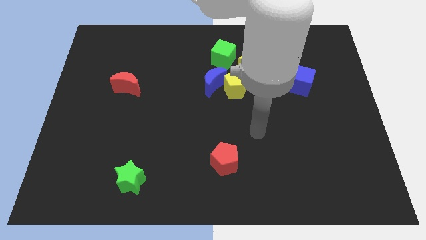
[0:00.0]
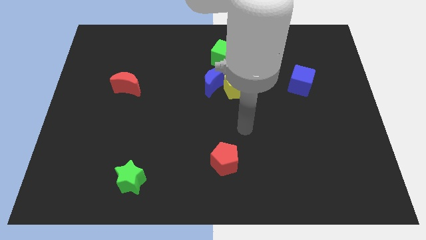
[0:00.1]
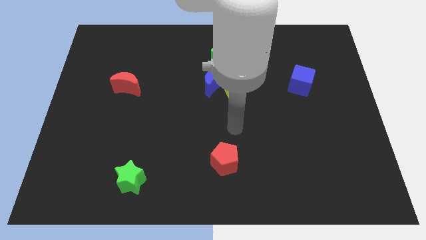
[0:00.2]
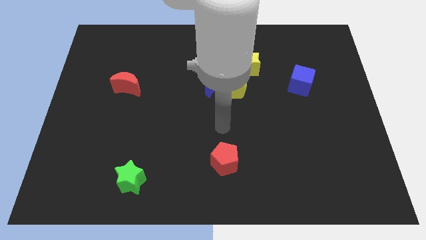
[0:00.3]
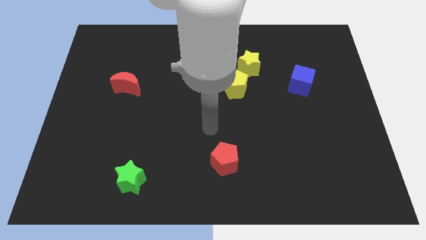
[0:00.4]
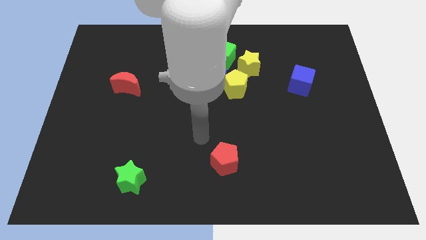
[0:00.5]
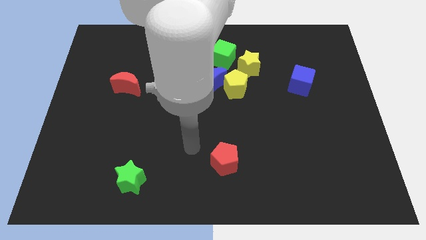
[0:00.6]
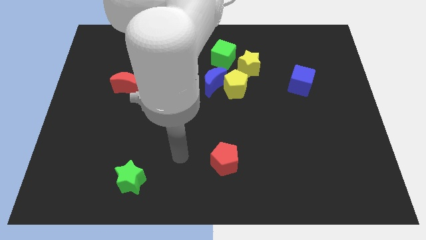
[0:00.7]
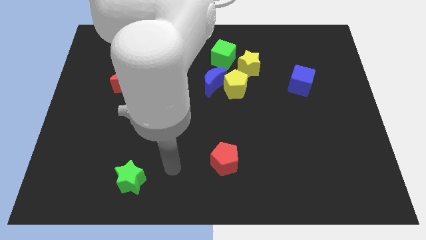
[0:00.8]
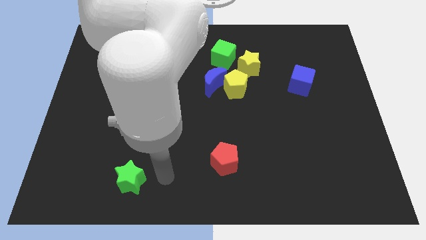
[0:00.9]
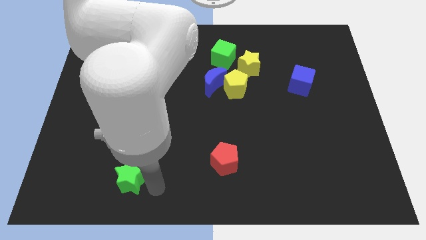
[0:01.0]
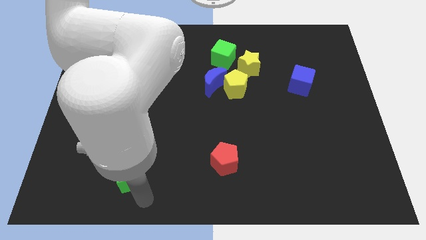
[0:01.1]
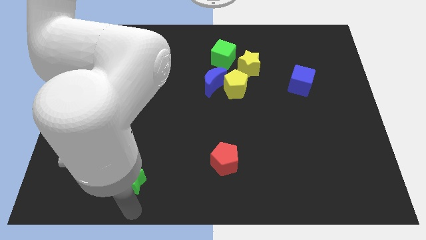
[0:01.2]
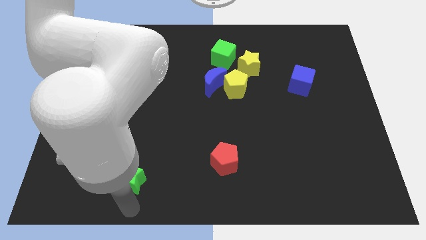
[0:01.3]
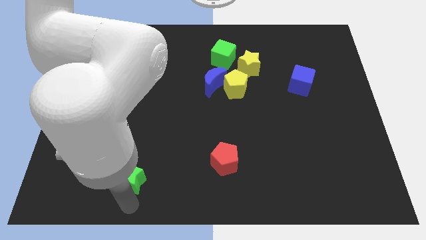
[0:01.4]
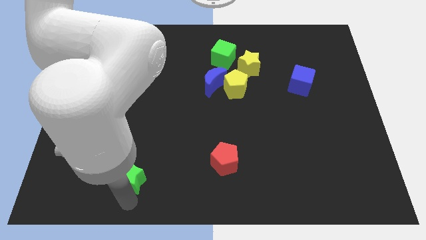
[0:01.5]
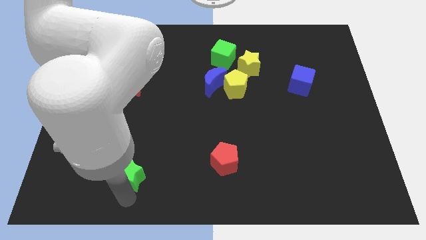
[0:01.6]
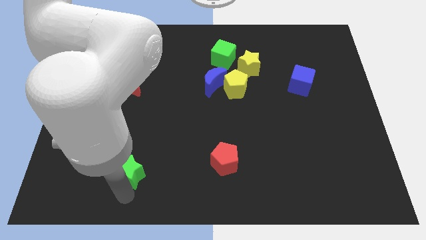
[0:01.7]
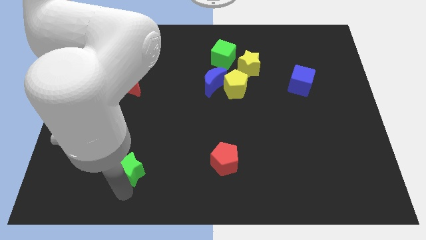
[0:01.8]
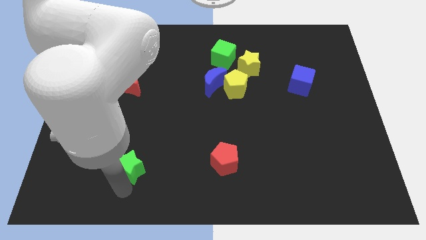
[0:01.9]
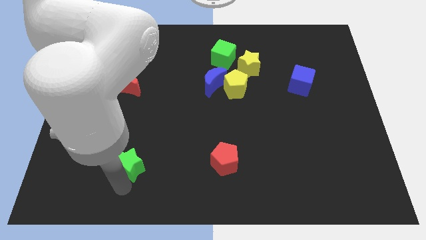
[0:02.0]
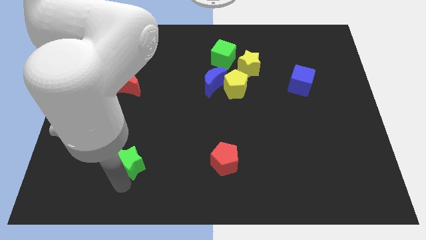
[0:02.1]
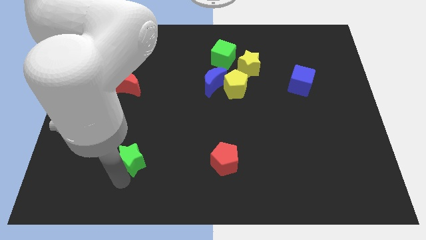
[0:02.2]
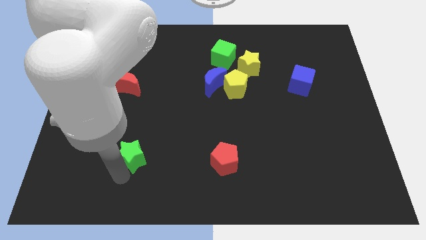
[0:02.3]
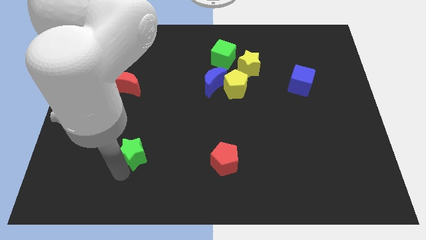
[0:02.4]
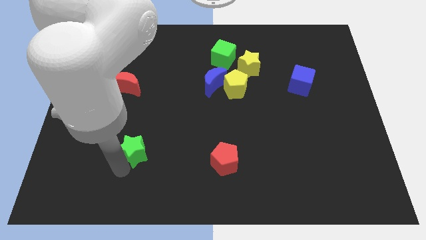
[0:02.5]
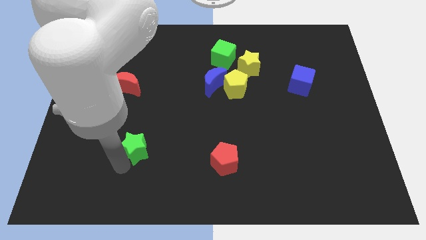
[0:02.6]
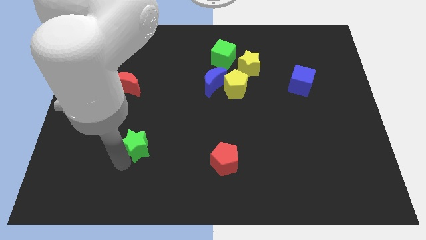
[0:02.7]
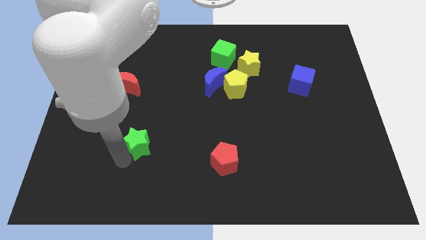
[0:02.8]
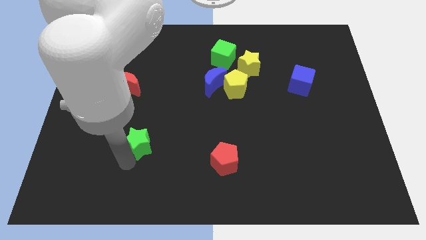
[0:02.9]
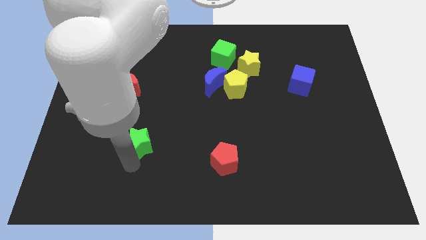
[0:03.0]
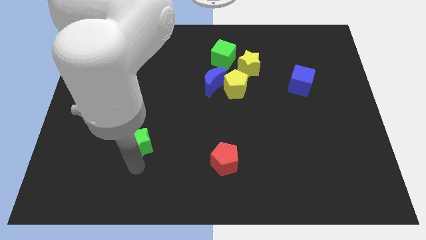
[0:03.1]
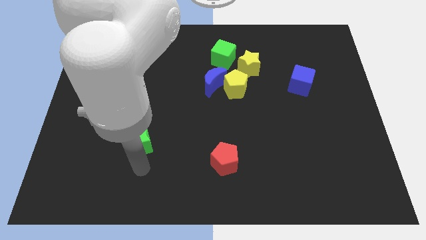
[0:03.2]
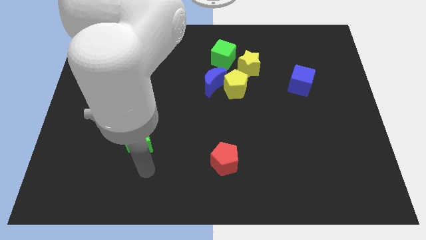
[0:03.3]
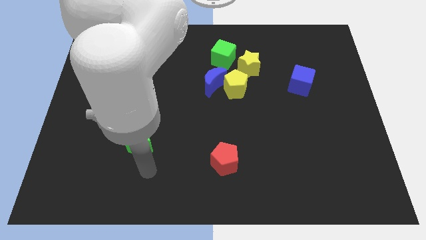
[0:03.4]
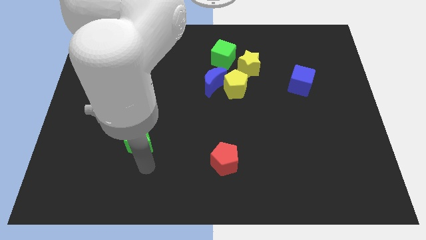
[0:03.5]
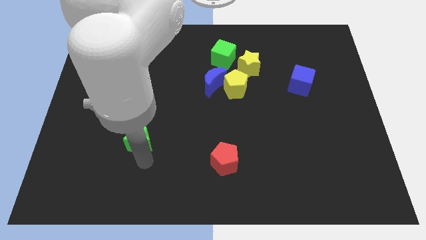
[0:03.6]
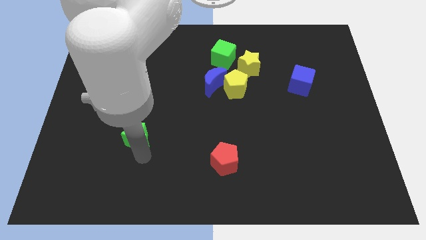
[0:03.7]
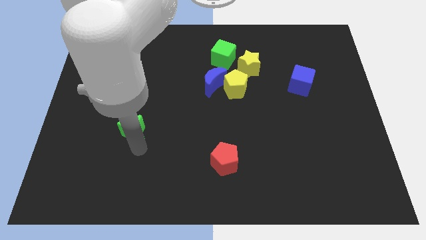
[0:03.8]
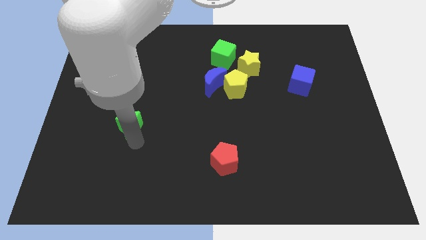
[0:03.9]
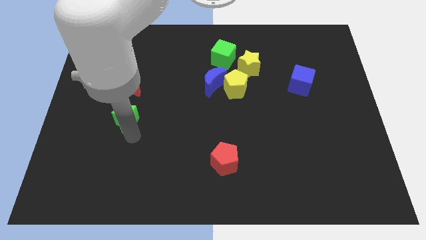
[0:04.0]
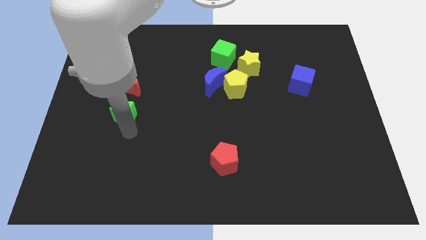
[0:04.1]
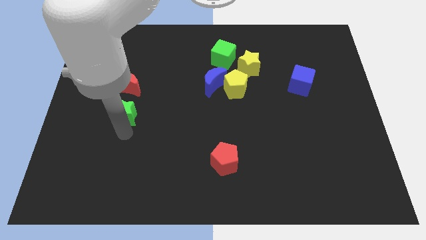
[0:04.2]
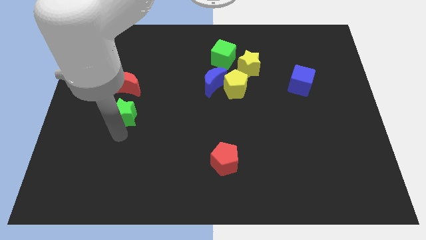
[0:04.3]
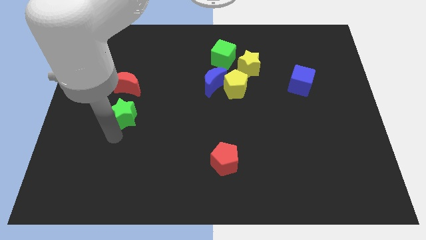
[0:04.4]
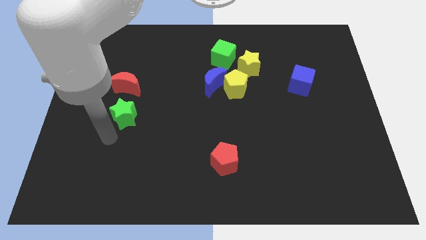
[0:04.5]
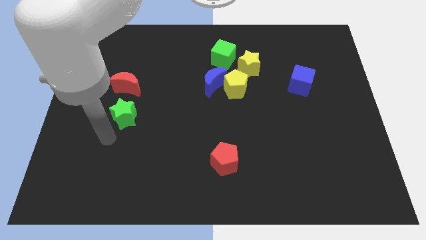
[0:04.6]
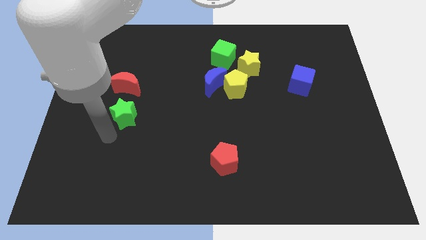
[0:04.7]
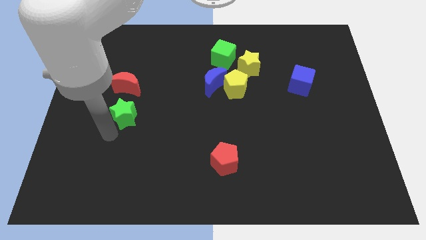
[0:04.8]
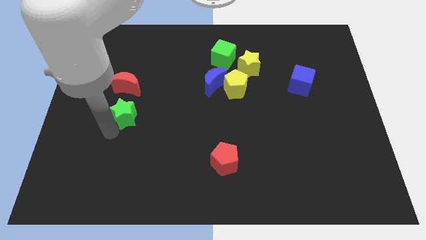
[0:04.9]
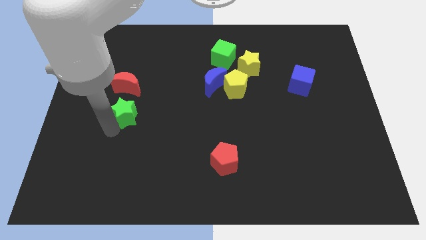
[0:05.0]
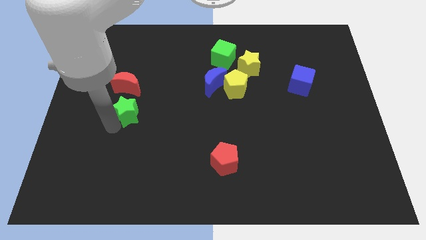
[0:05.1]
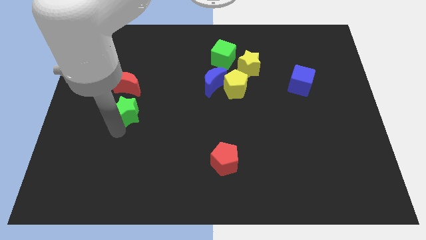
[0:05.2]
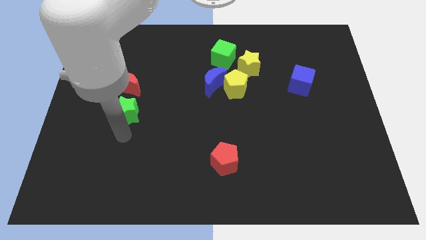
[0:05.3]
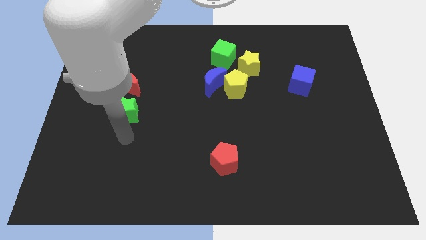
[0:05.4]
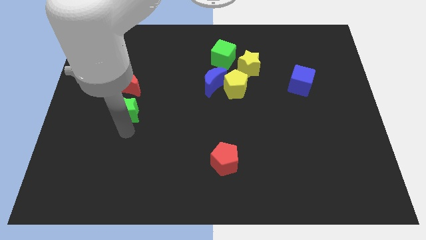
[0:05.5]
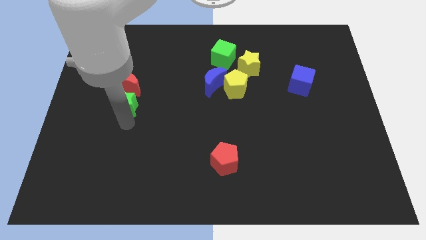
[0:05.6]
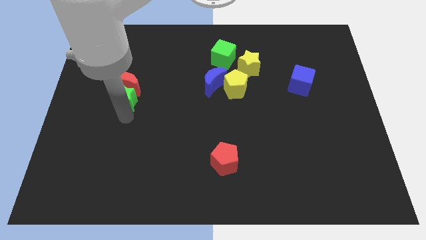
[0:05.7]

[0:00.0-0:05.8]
slide the green star towards the red moon

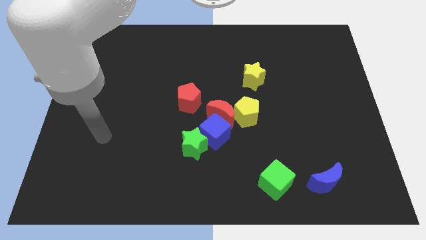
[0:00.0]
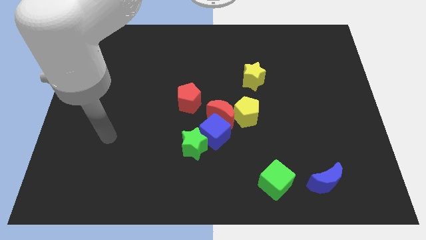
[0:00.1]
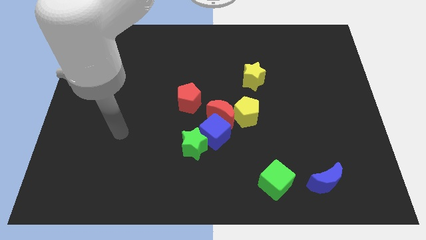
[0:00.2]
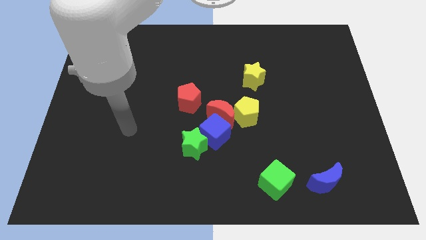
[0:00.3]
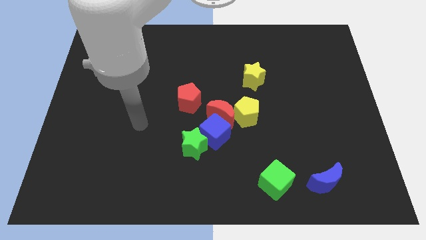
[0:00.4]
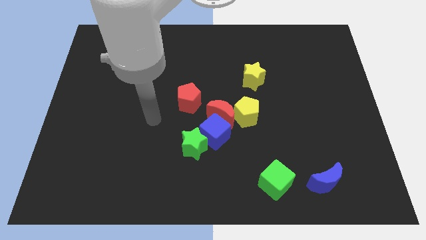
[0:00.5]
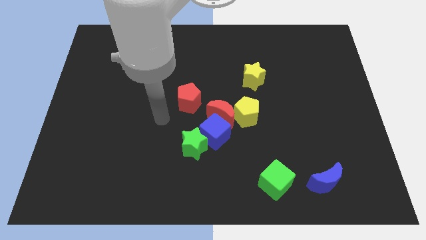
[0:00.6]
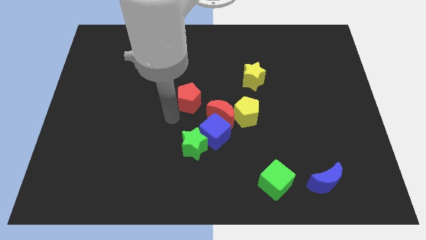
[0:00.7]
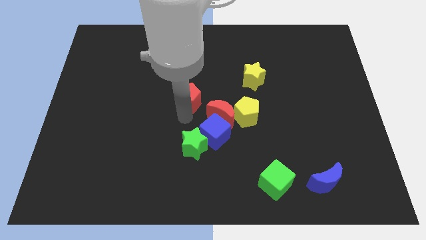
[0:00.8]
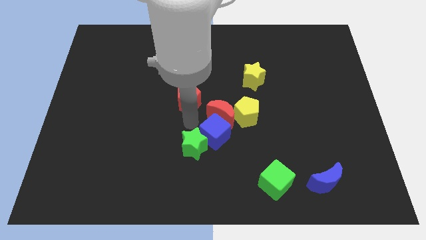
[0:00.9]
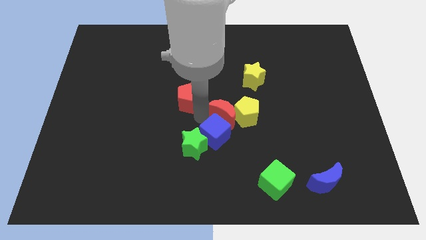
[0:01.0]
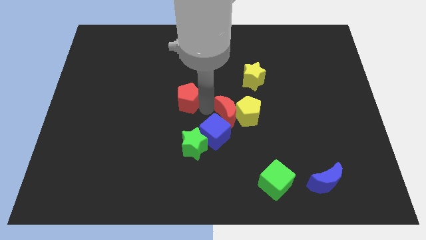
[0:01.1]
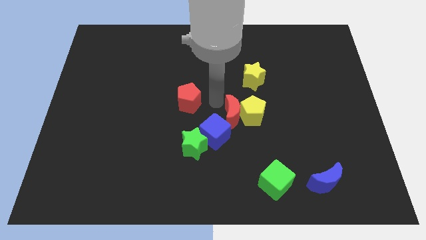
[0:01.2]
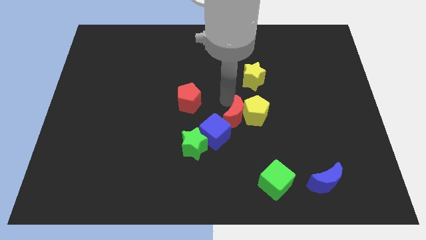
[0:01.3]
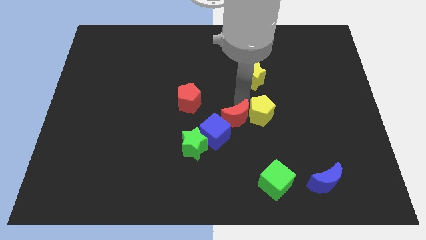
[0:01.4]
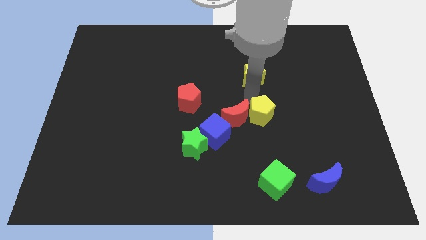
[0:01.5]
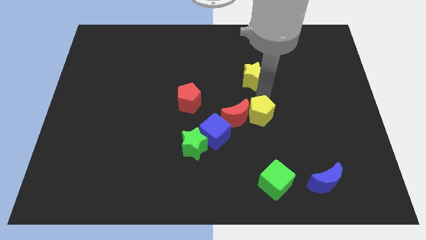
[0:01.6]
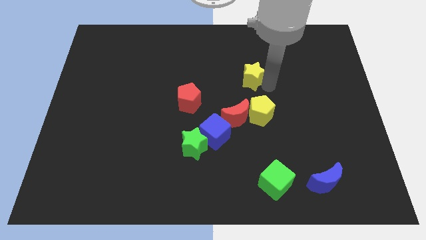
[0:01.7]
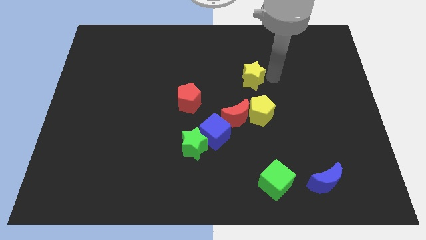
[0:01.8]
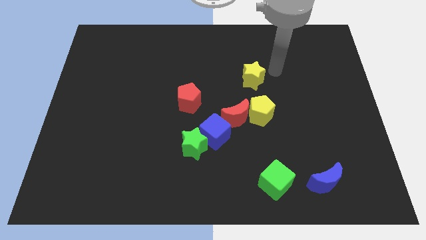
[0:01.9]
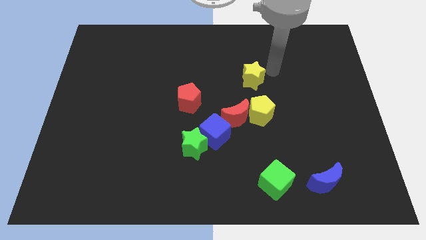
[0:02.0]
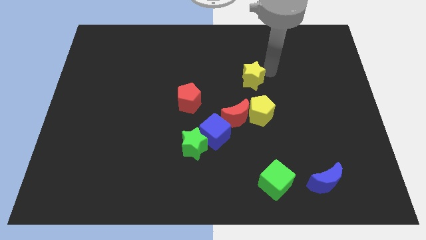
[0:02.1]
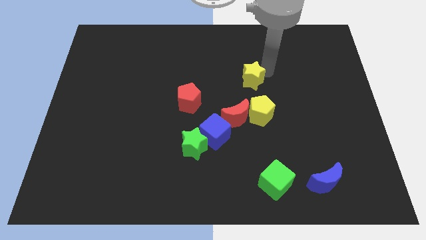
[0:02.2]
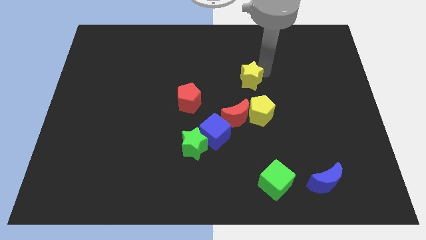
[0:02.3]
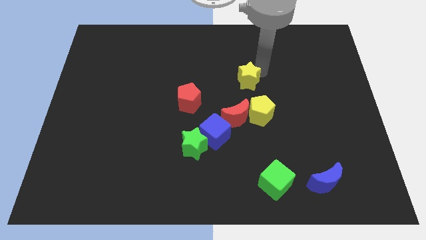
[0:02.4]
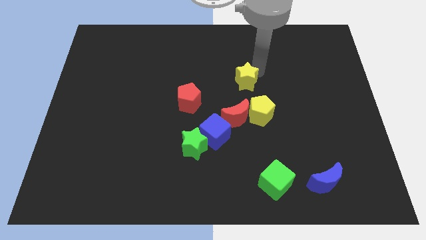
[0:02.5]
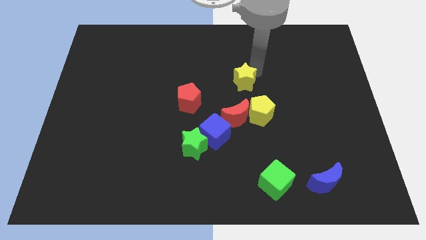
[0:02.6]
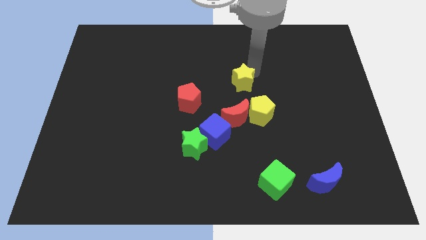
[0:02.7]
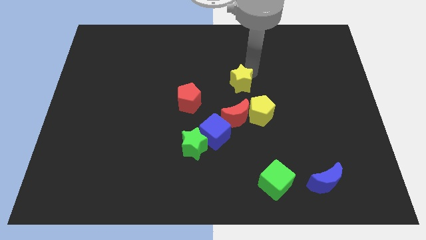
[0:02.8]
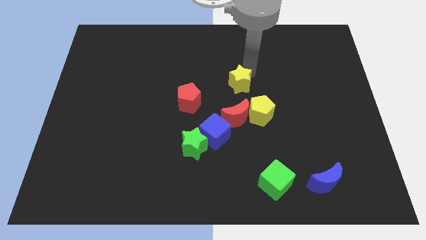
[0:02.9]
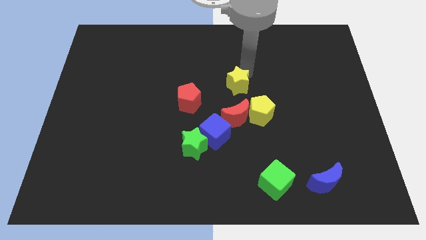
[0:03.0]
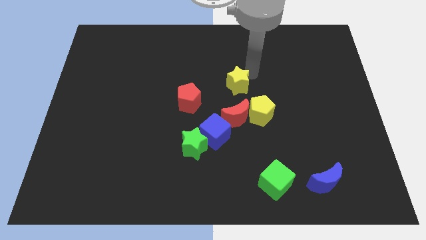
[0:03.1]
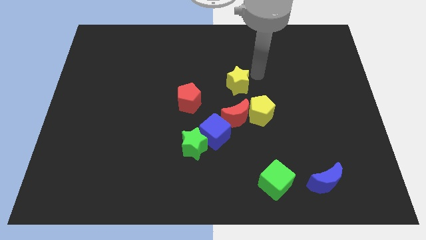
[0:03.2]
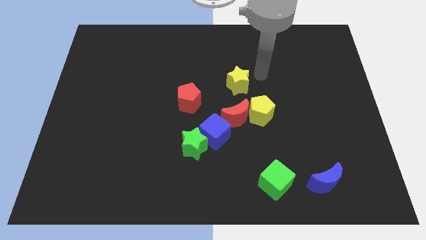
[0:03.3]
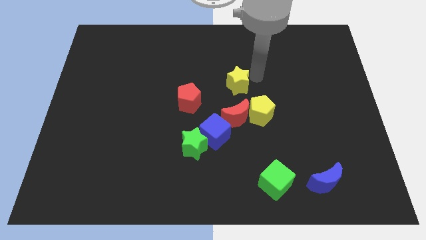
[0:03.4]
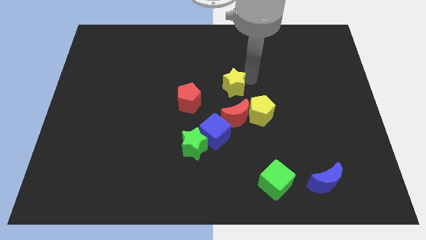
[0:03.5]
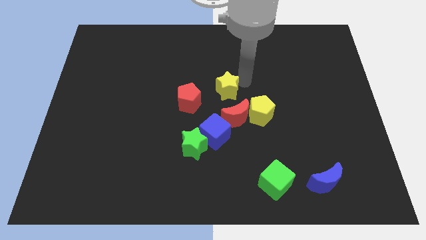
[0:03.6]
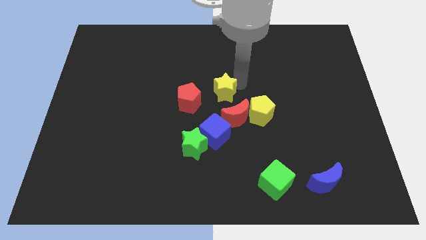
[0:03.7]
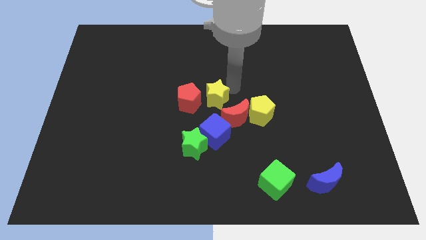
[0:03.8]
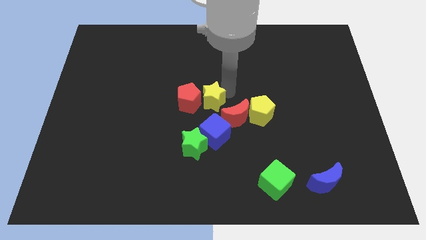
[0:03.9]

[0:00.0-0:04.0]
push the yellow star next to the red pentagon
